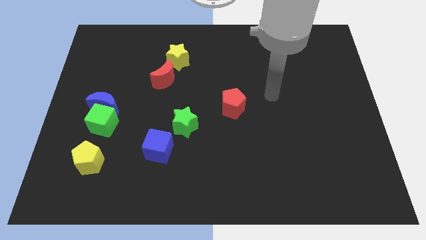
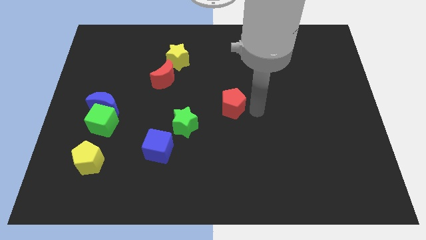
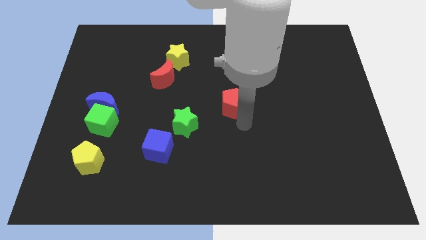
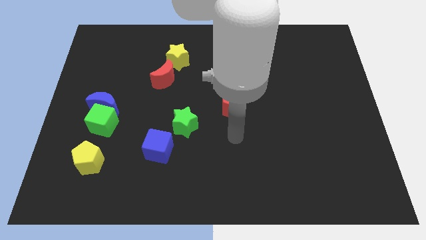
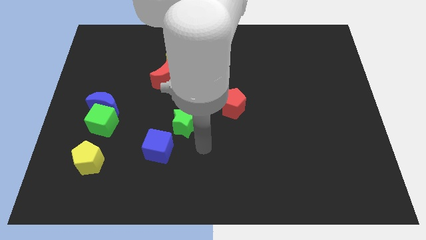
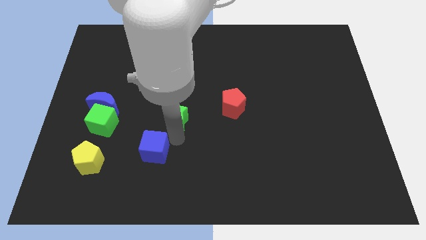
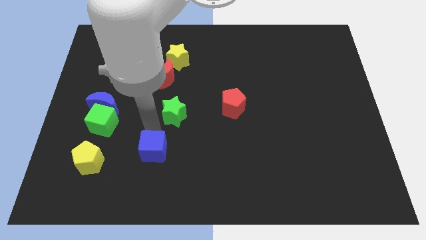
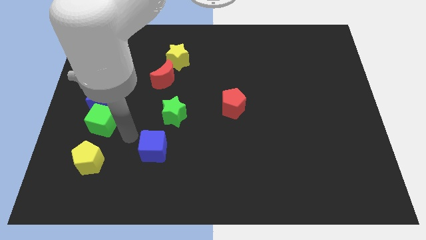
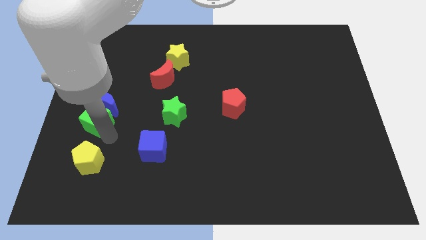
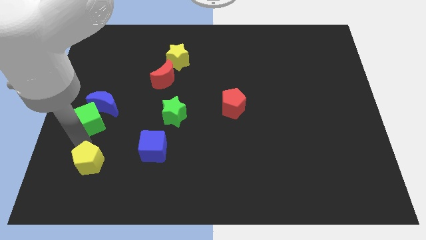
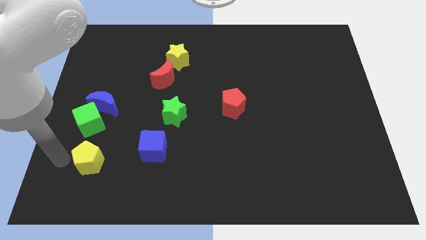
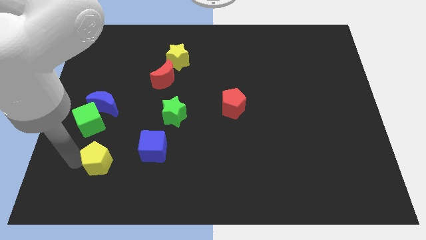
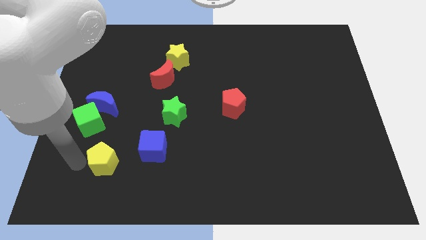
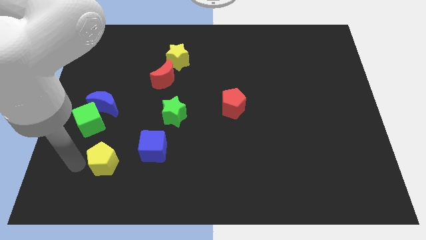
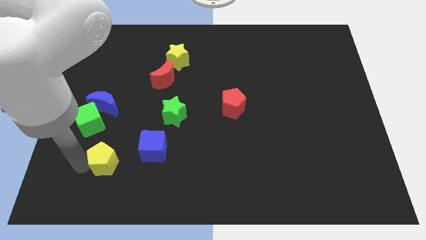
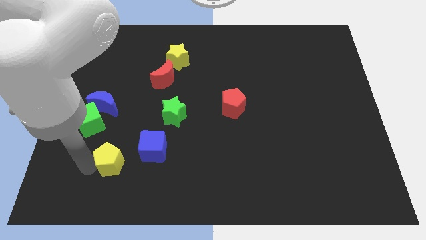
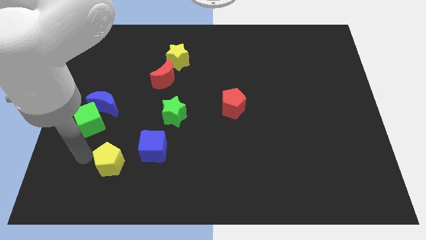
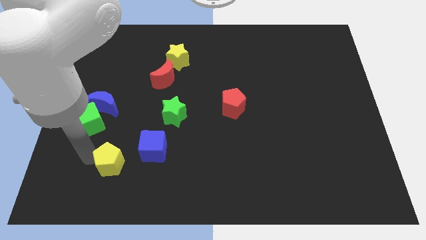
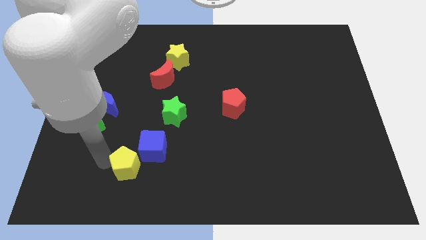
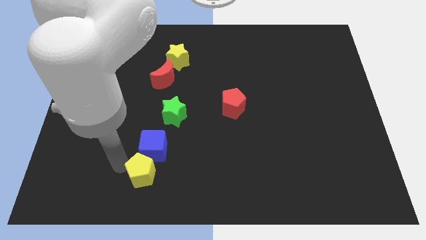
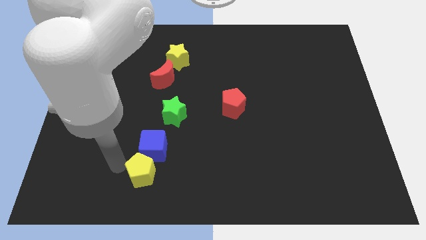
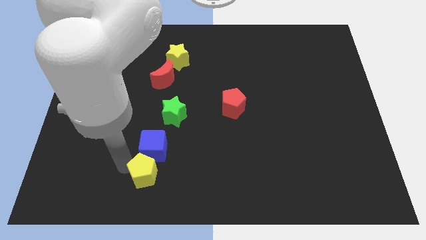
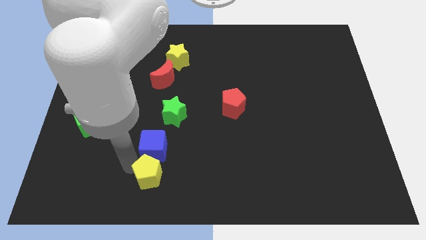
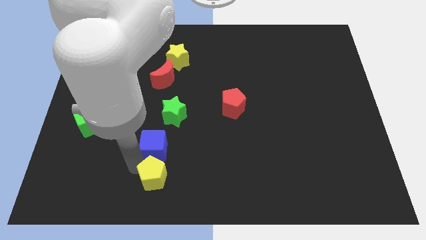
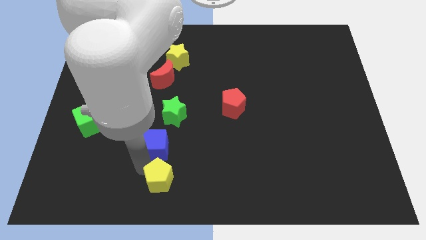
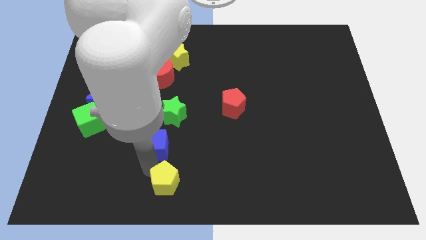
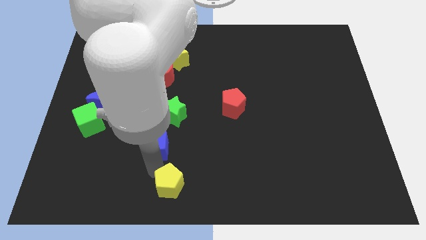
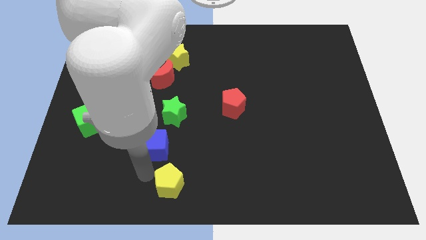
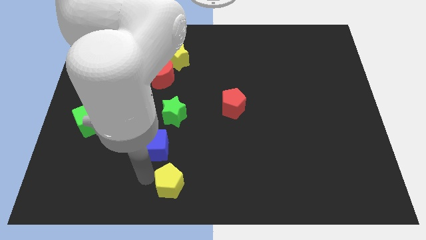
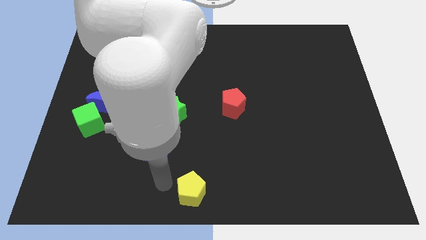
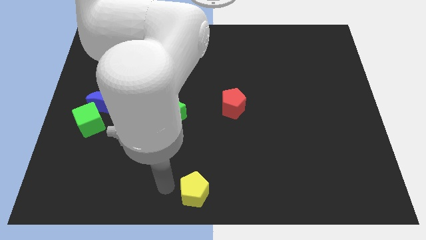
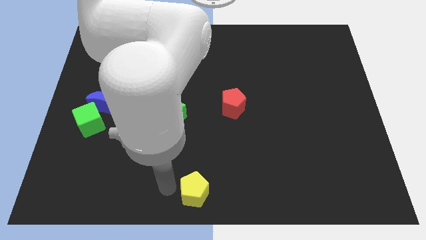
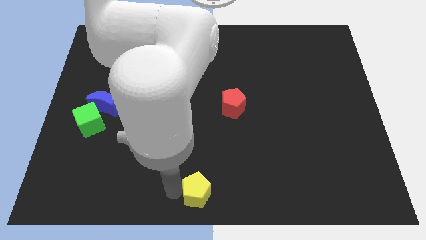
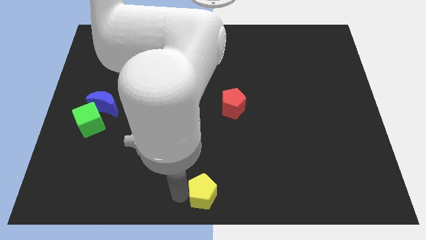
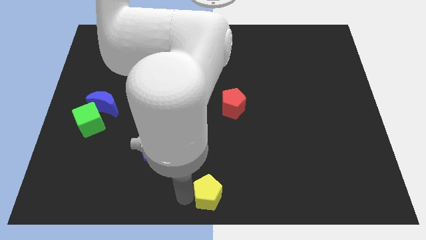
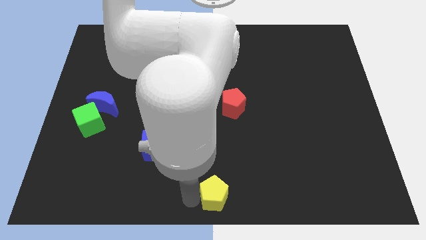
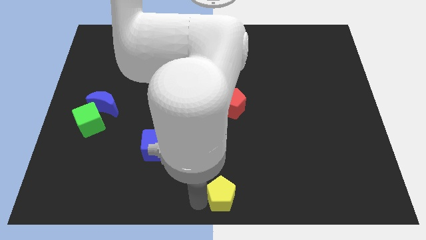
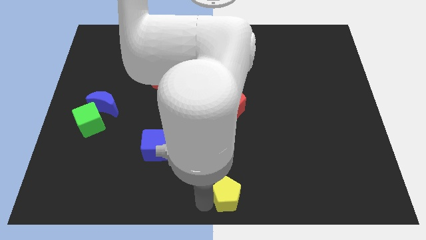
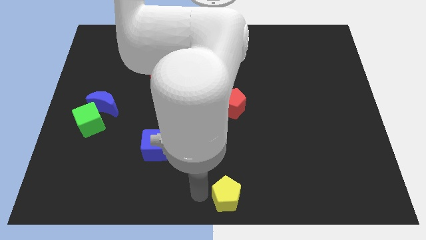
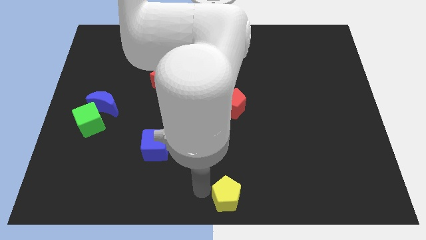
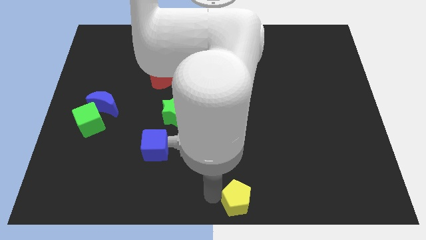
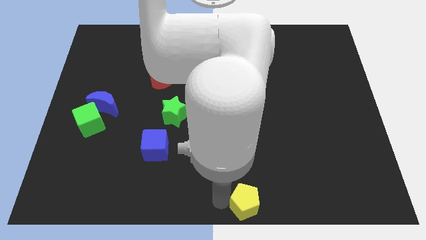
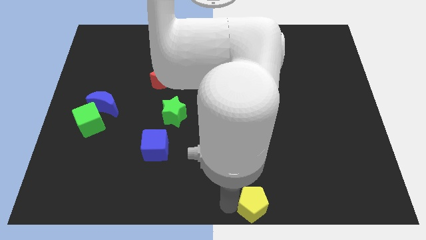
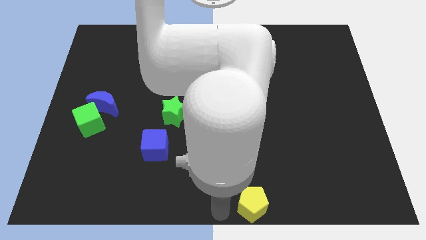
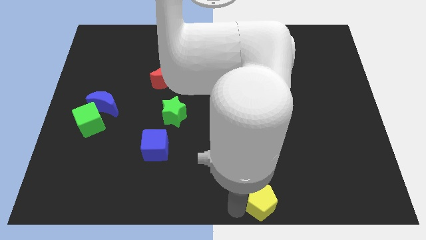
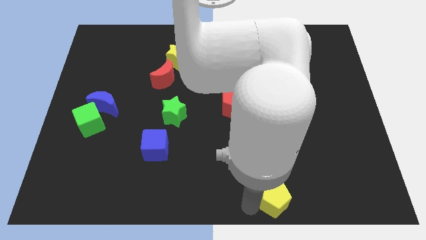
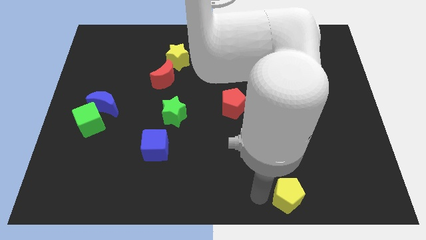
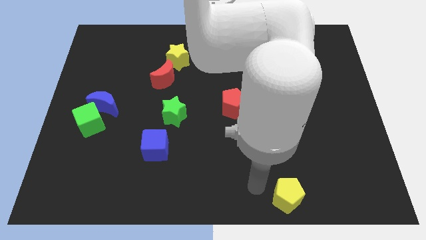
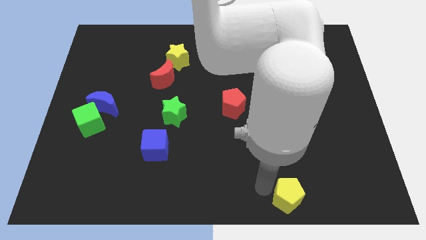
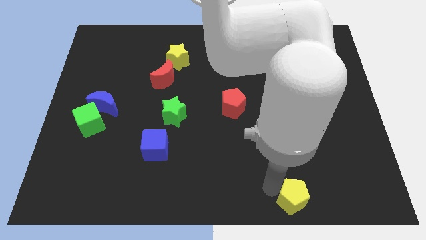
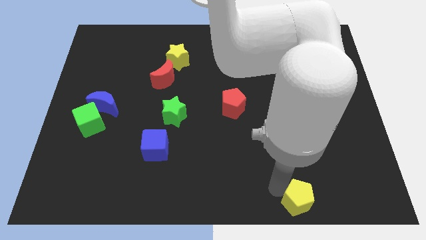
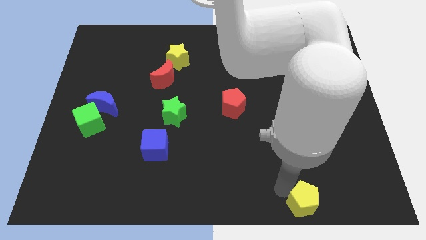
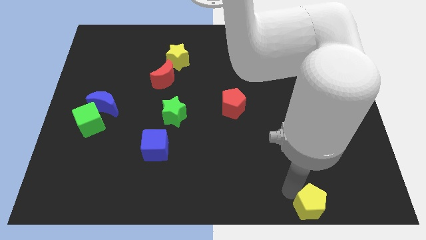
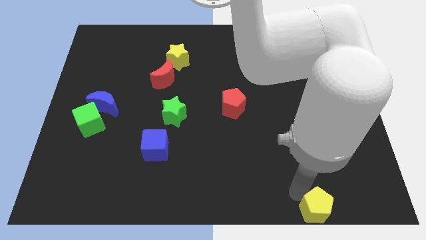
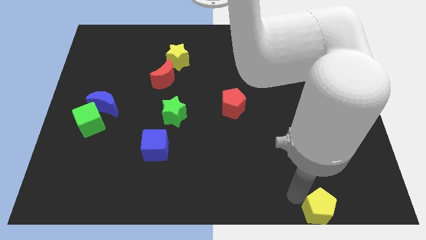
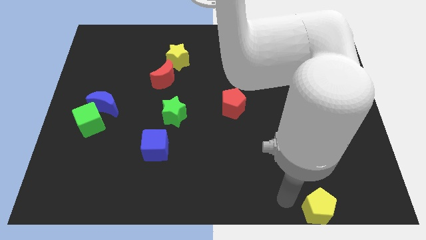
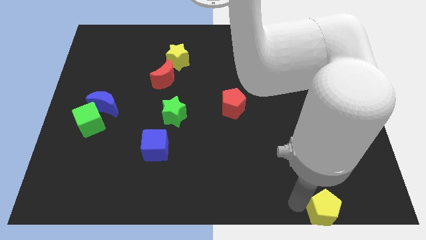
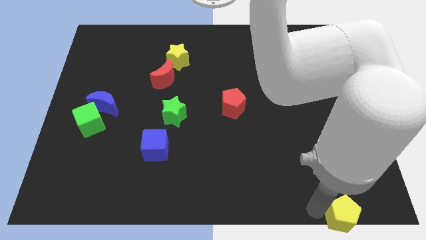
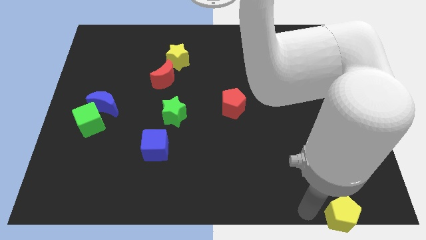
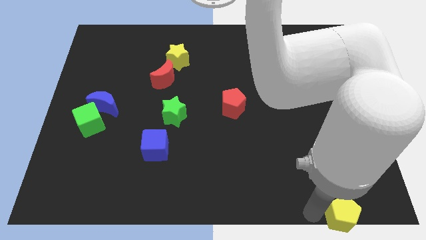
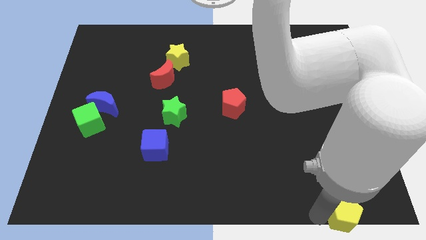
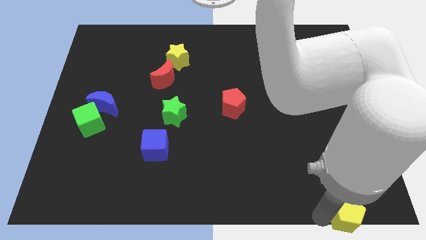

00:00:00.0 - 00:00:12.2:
slide the yellow pentagon to the bottom right
